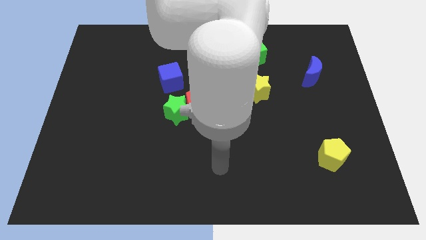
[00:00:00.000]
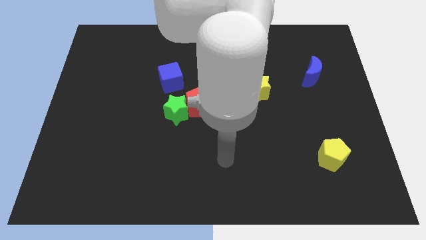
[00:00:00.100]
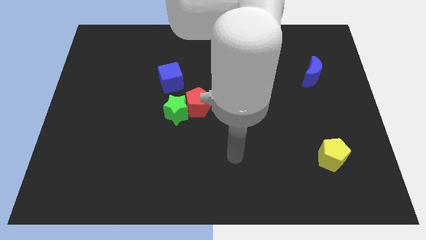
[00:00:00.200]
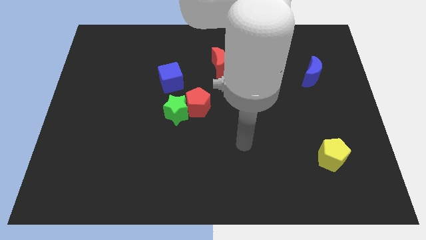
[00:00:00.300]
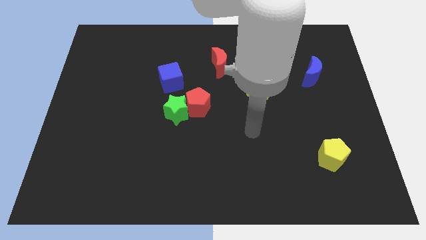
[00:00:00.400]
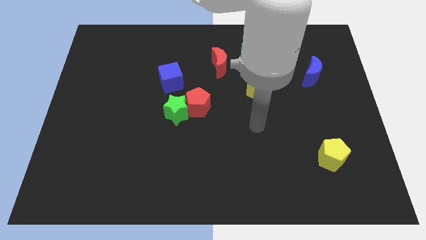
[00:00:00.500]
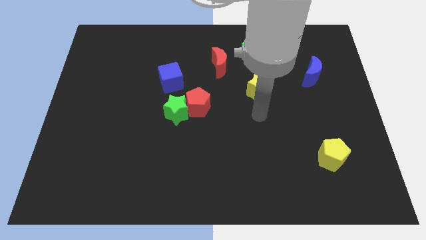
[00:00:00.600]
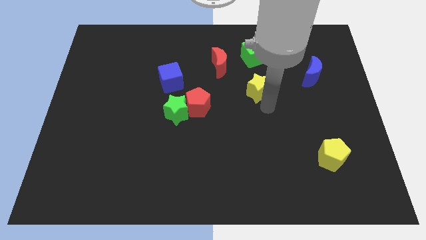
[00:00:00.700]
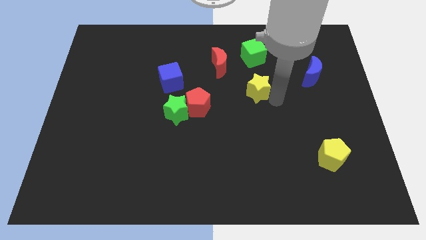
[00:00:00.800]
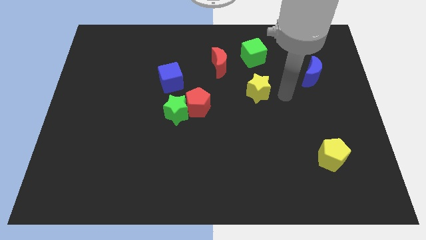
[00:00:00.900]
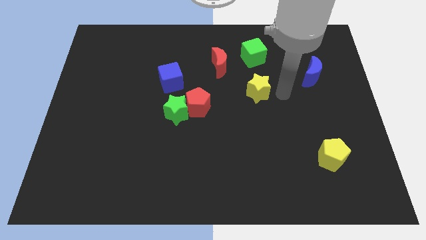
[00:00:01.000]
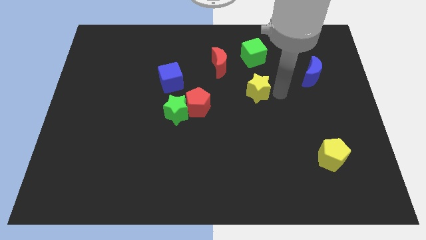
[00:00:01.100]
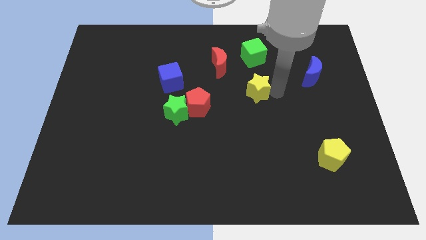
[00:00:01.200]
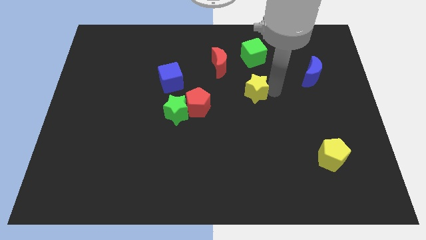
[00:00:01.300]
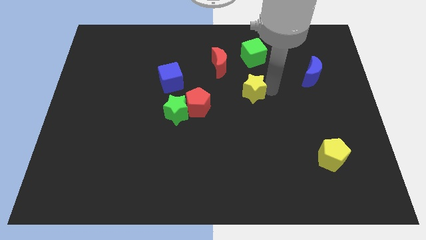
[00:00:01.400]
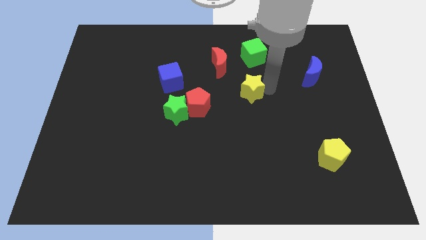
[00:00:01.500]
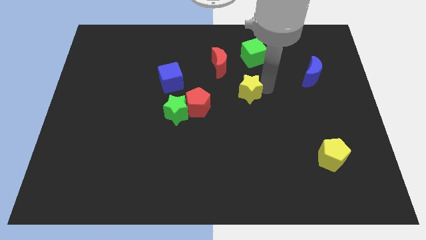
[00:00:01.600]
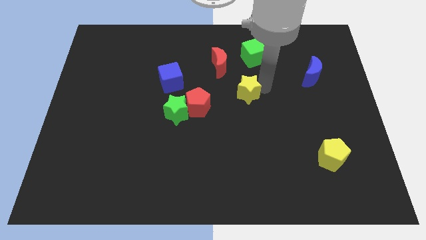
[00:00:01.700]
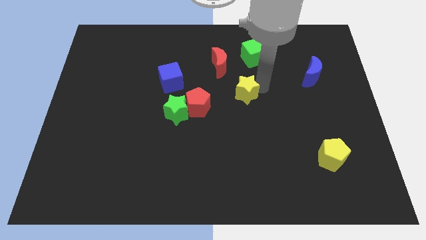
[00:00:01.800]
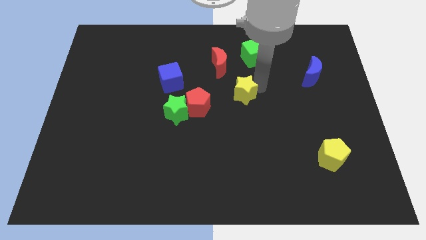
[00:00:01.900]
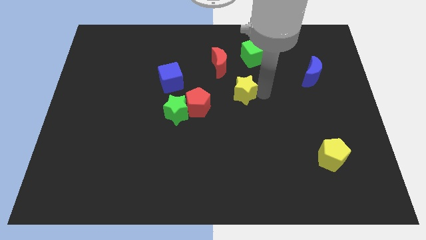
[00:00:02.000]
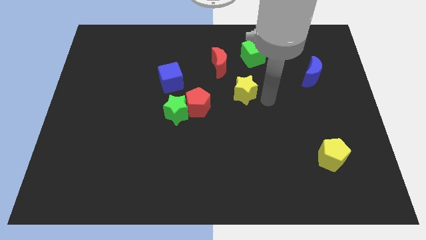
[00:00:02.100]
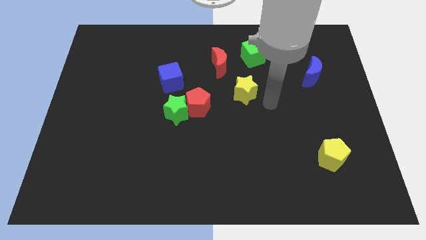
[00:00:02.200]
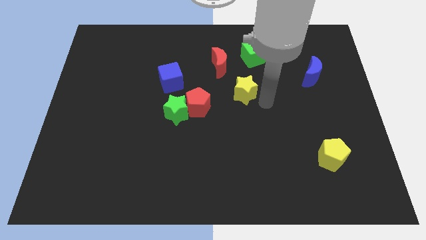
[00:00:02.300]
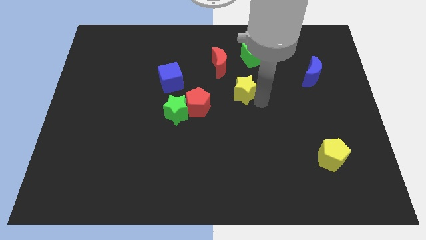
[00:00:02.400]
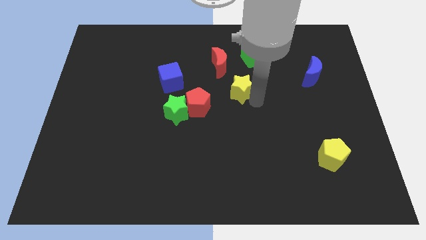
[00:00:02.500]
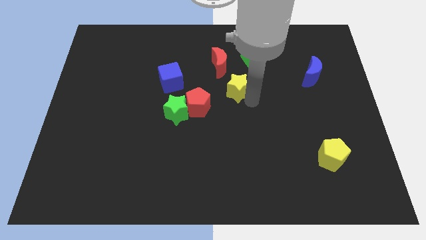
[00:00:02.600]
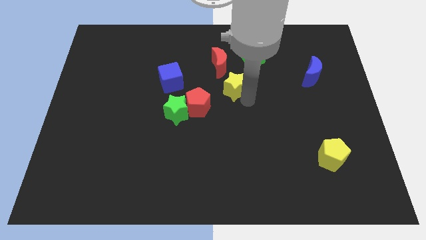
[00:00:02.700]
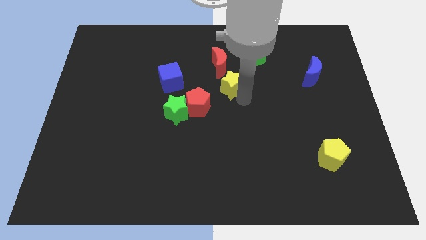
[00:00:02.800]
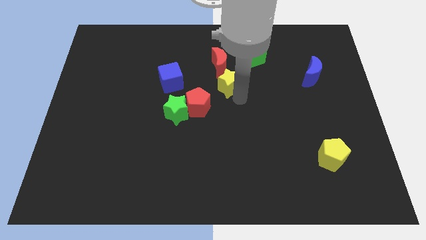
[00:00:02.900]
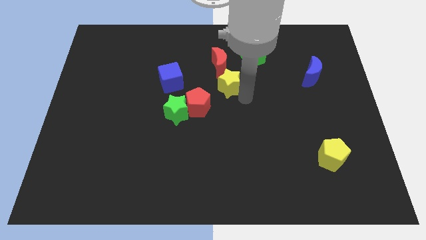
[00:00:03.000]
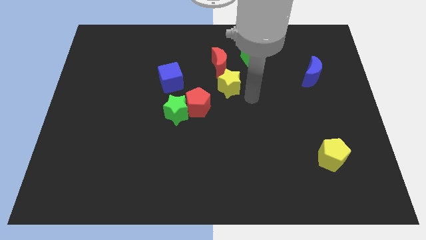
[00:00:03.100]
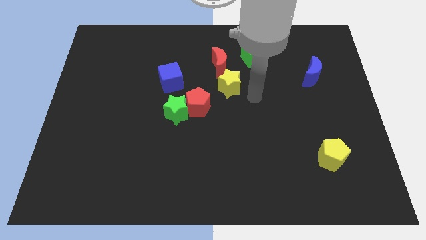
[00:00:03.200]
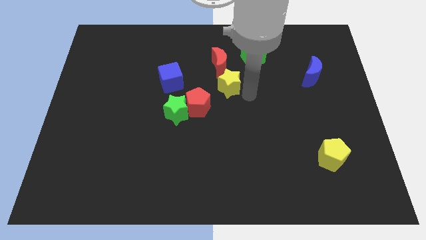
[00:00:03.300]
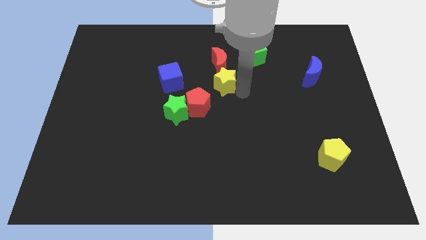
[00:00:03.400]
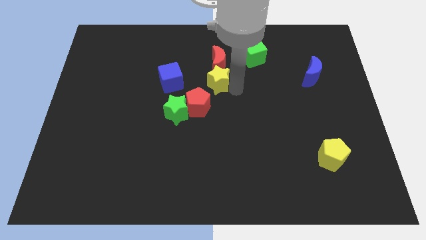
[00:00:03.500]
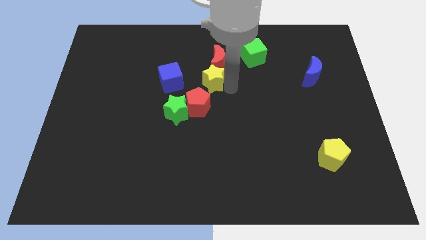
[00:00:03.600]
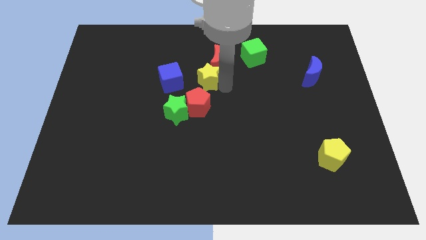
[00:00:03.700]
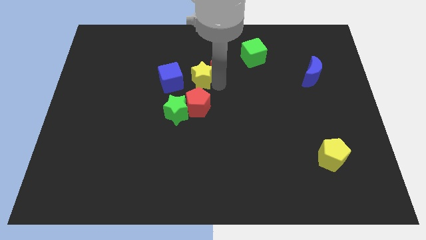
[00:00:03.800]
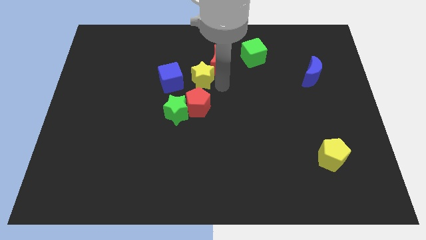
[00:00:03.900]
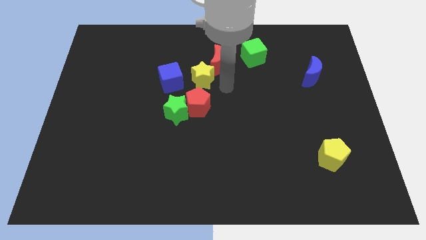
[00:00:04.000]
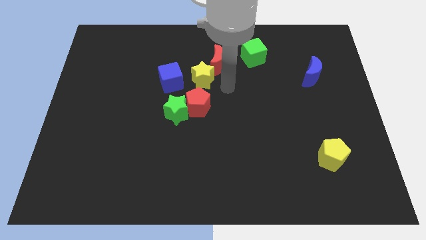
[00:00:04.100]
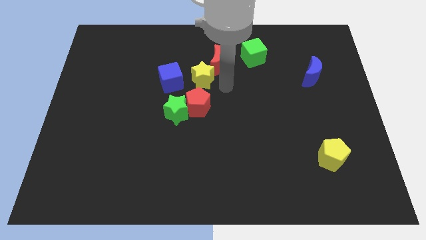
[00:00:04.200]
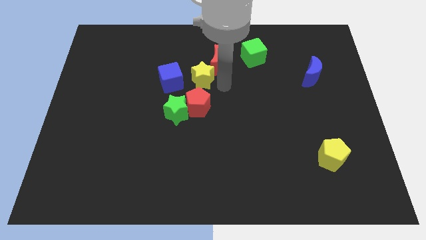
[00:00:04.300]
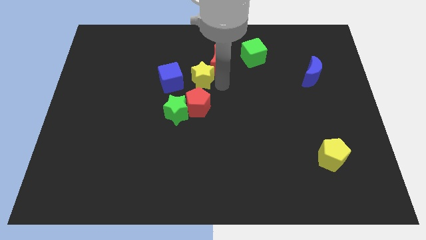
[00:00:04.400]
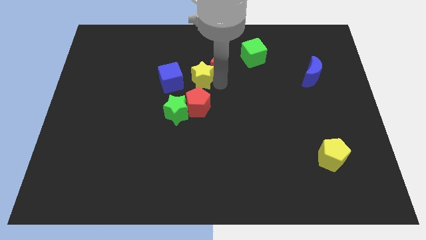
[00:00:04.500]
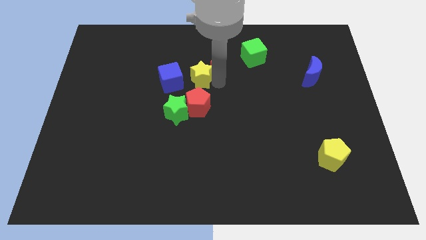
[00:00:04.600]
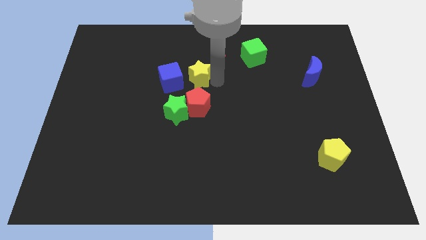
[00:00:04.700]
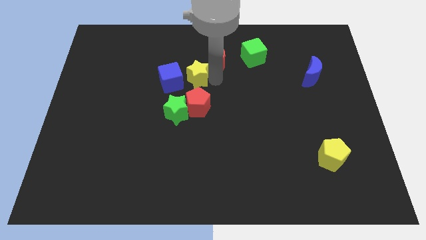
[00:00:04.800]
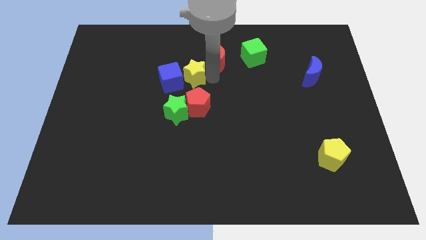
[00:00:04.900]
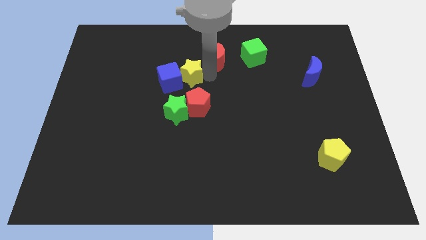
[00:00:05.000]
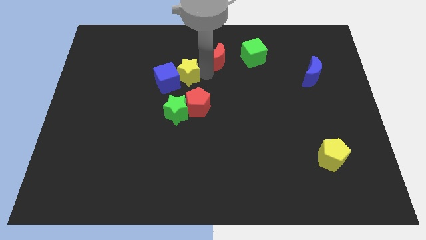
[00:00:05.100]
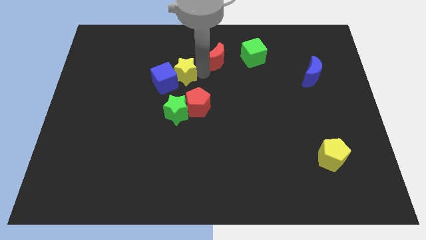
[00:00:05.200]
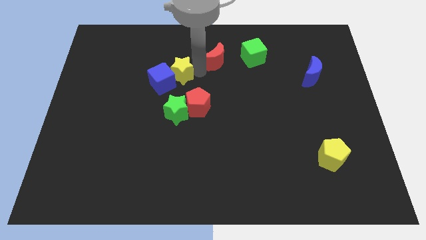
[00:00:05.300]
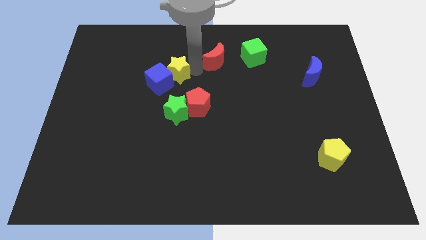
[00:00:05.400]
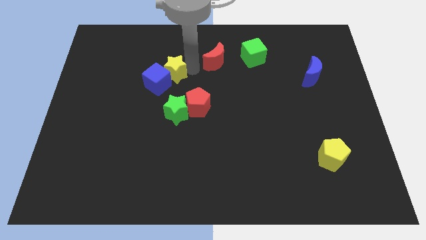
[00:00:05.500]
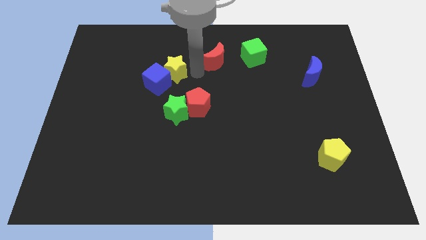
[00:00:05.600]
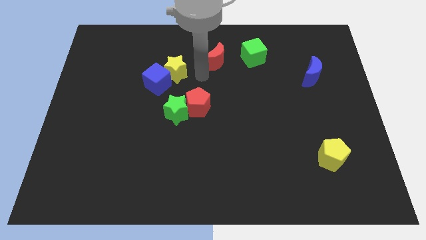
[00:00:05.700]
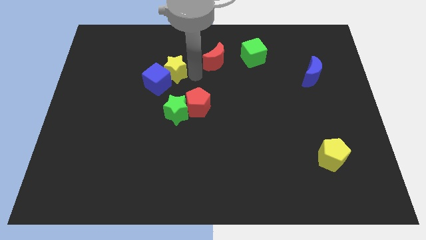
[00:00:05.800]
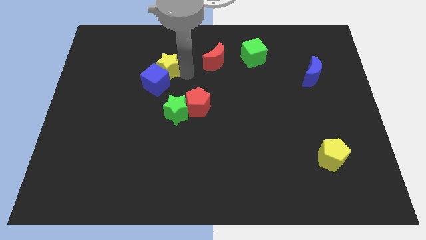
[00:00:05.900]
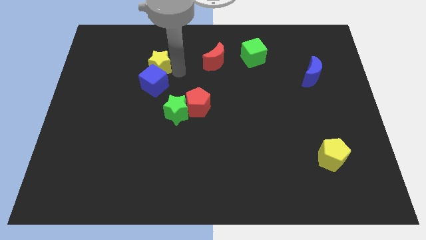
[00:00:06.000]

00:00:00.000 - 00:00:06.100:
move the yellow star to the top left of the blue cube

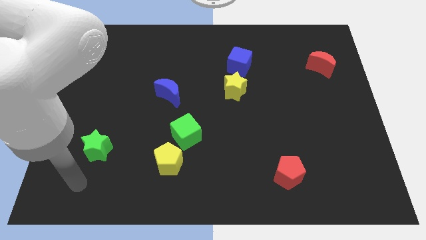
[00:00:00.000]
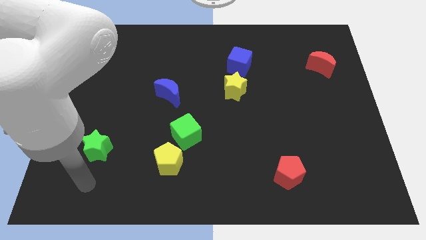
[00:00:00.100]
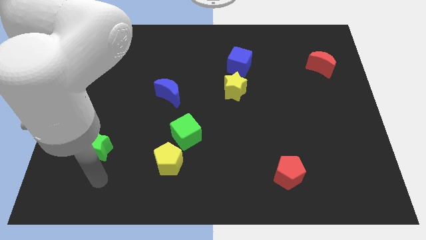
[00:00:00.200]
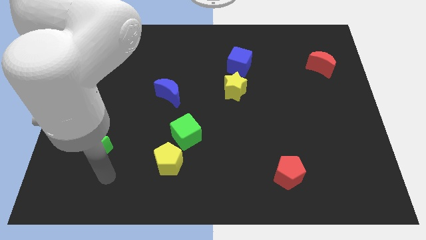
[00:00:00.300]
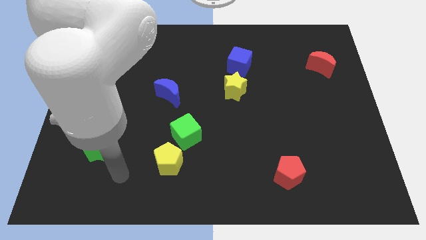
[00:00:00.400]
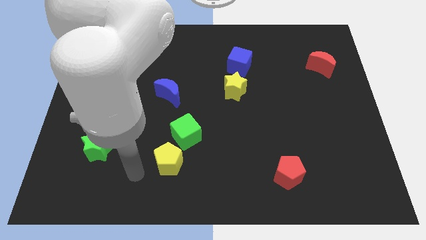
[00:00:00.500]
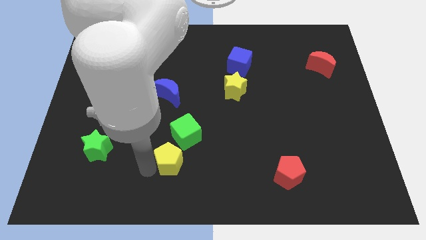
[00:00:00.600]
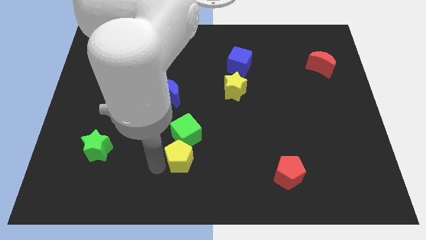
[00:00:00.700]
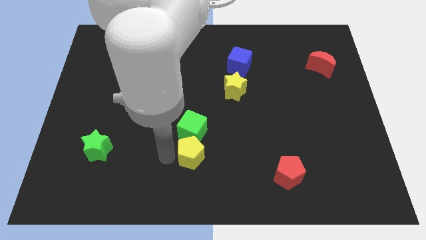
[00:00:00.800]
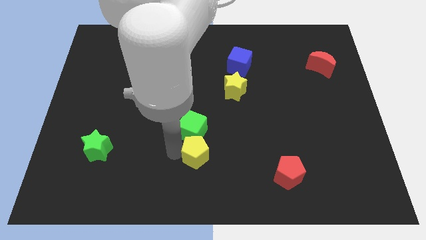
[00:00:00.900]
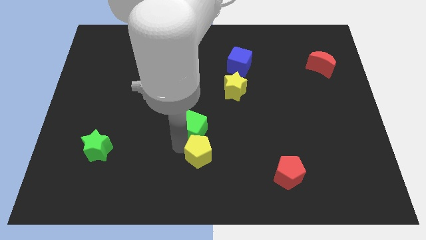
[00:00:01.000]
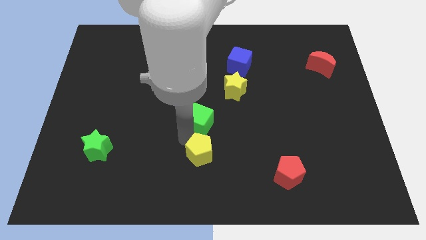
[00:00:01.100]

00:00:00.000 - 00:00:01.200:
push the green cube to the bottom left of the yellow star
